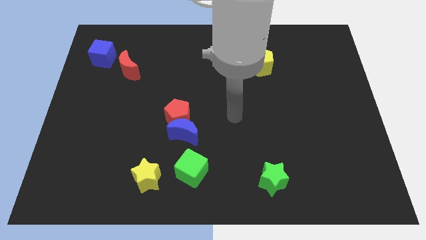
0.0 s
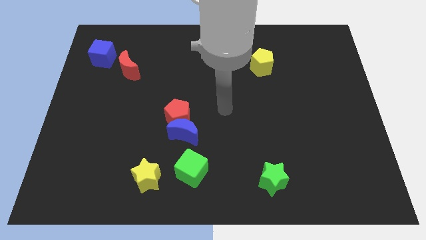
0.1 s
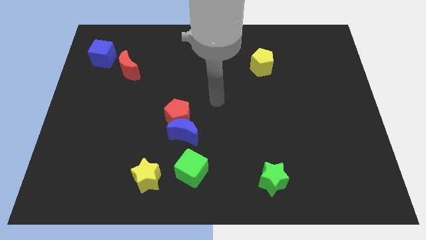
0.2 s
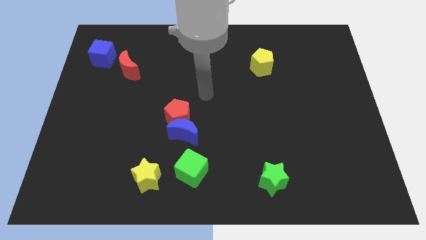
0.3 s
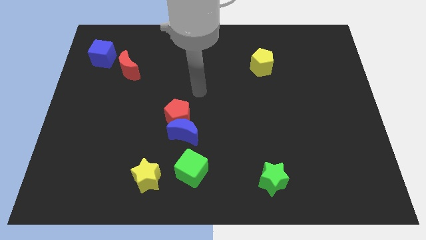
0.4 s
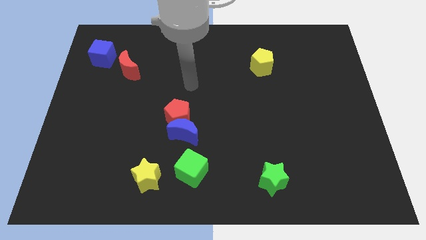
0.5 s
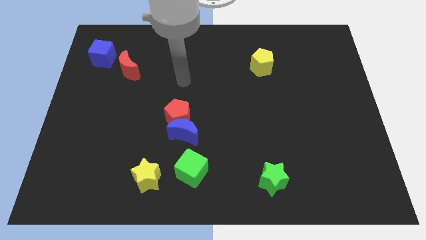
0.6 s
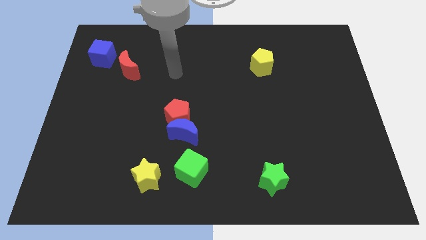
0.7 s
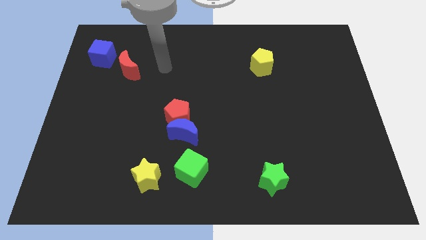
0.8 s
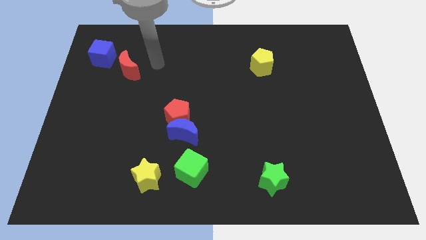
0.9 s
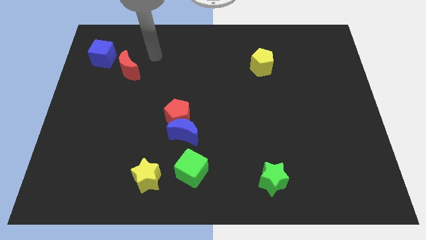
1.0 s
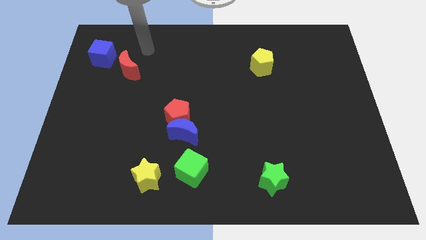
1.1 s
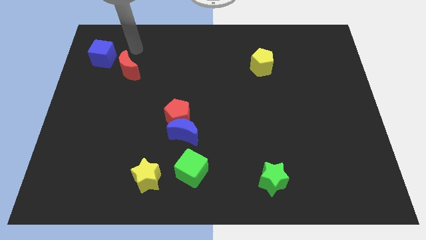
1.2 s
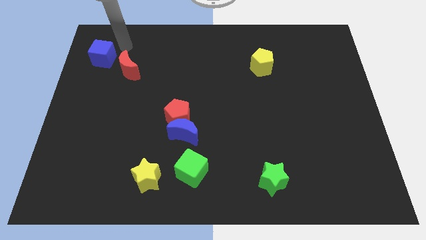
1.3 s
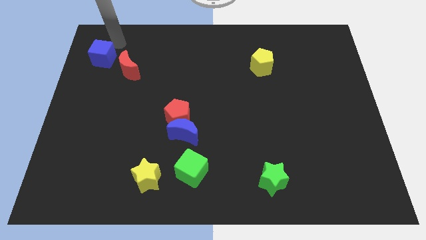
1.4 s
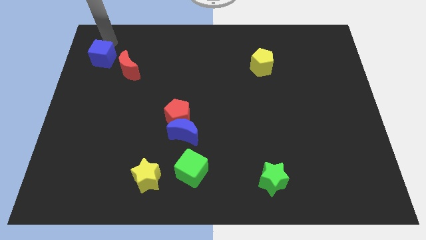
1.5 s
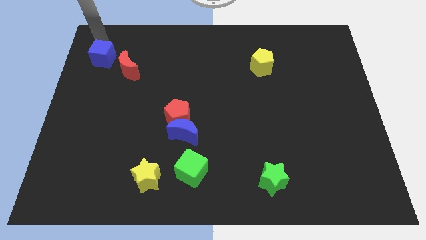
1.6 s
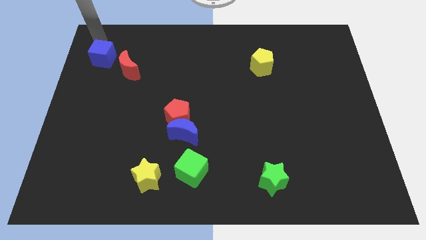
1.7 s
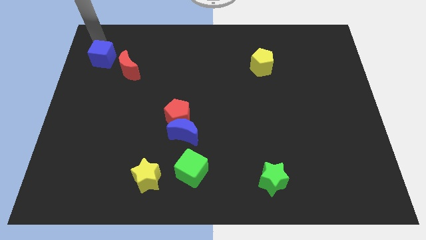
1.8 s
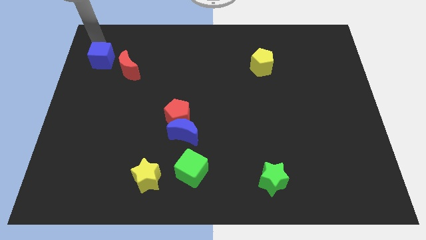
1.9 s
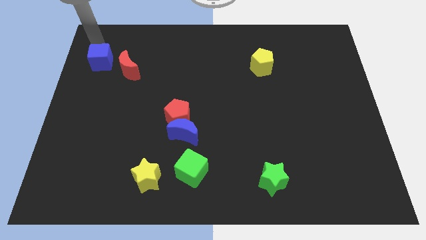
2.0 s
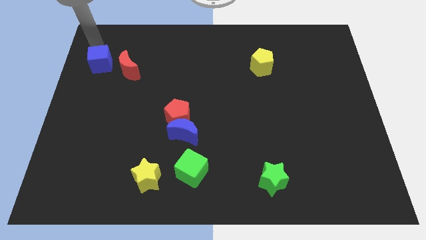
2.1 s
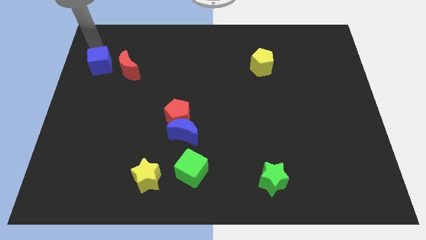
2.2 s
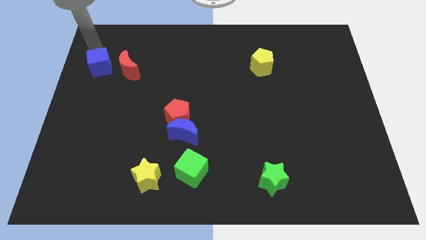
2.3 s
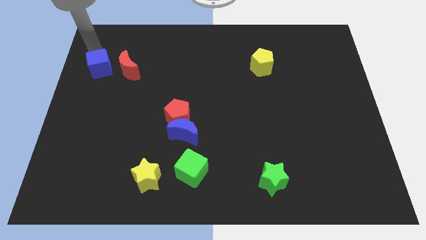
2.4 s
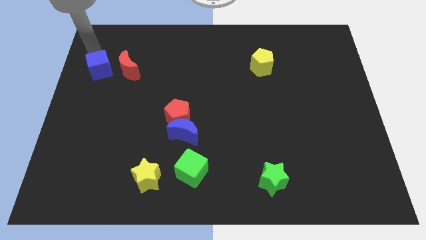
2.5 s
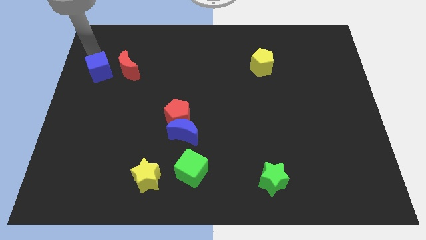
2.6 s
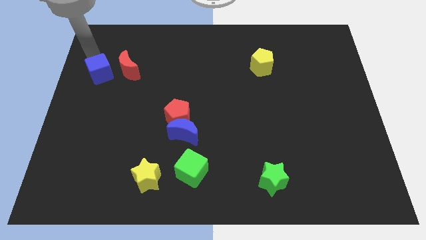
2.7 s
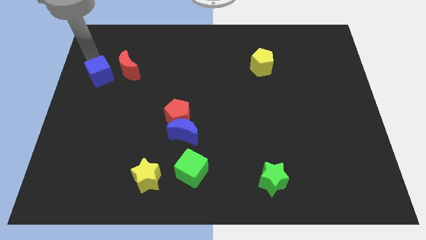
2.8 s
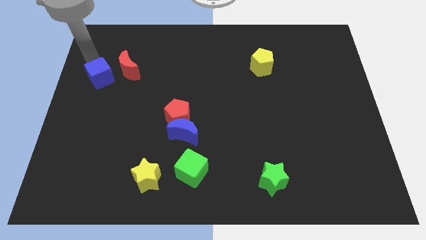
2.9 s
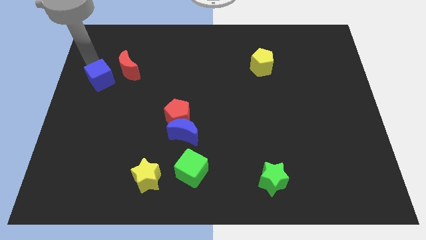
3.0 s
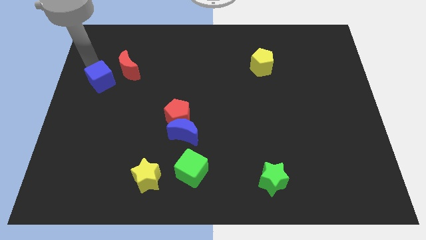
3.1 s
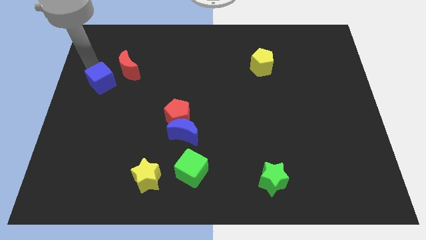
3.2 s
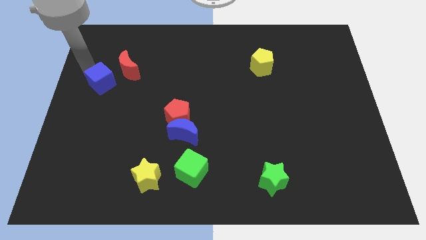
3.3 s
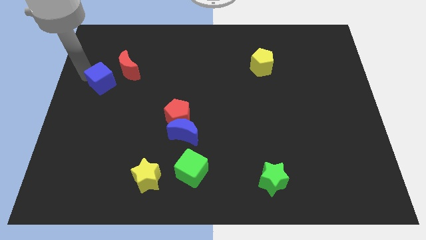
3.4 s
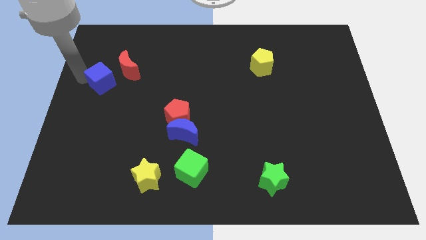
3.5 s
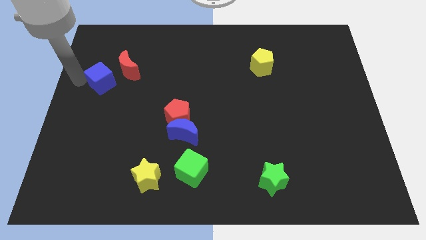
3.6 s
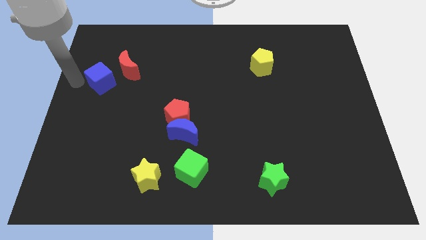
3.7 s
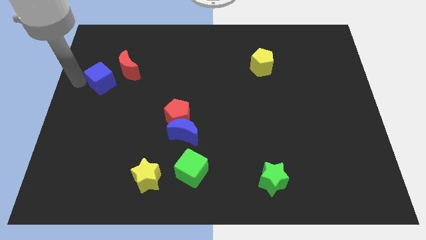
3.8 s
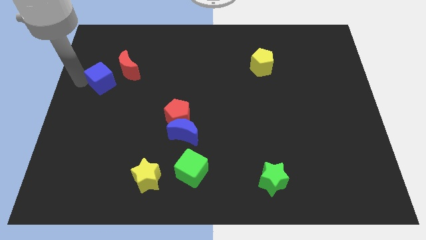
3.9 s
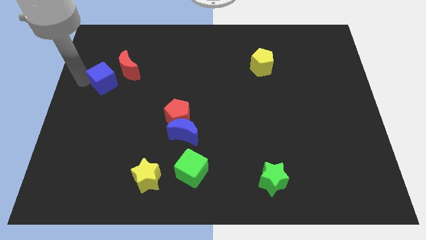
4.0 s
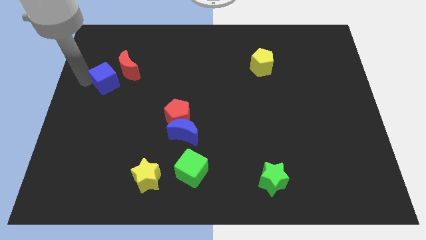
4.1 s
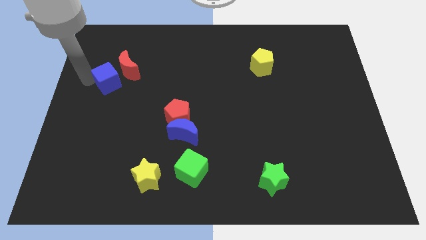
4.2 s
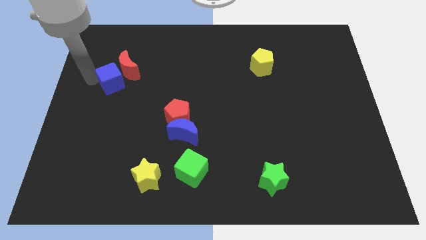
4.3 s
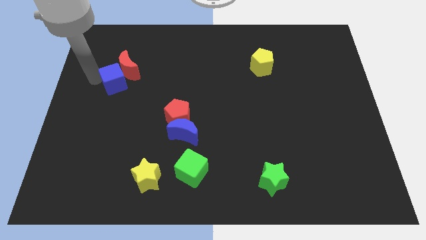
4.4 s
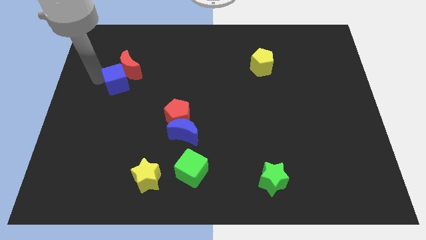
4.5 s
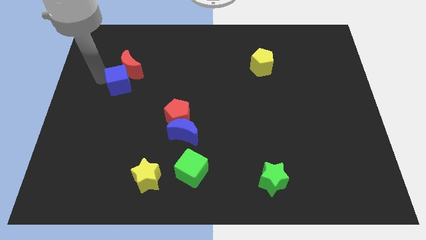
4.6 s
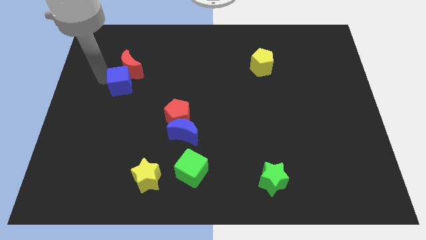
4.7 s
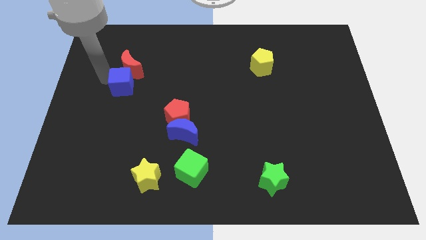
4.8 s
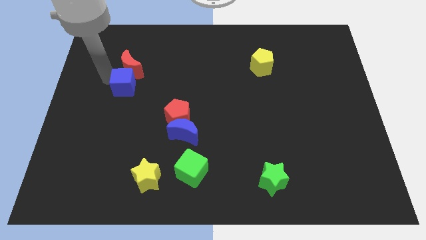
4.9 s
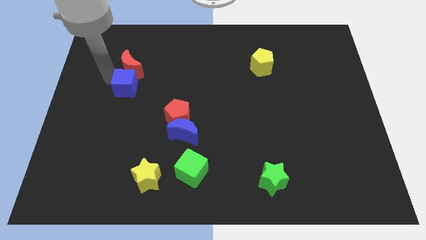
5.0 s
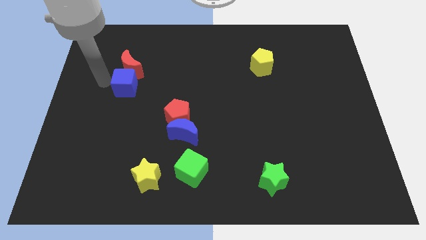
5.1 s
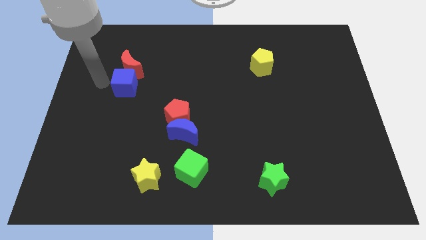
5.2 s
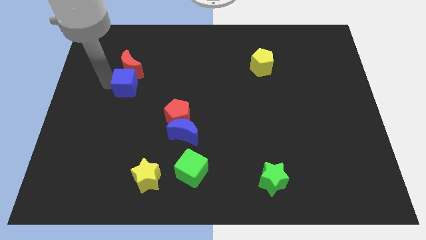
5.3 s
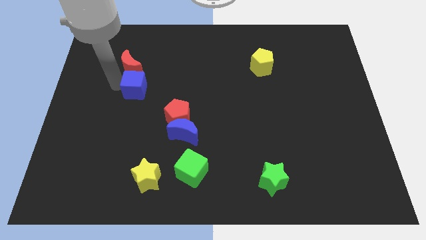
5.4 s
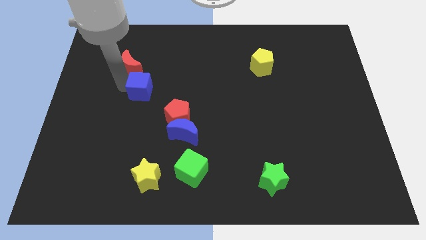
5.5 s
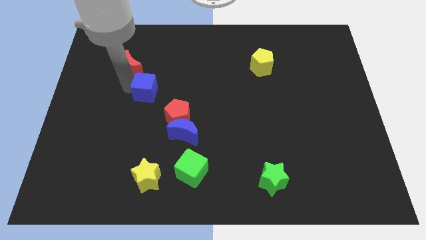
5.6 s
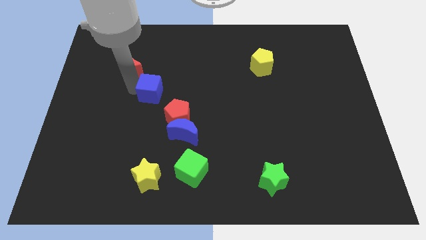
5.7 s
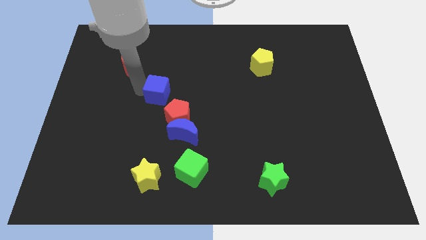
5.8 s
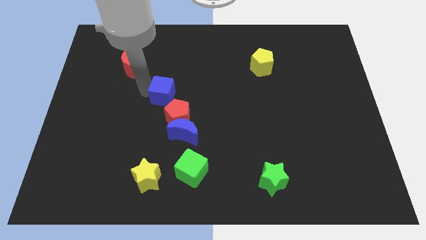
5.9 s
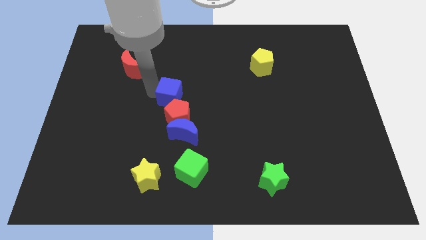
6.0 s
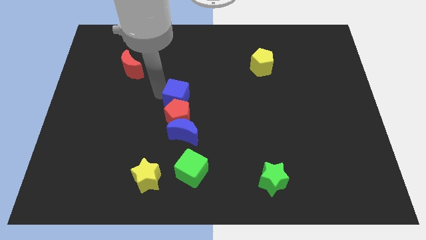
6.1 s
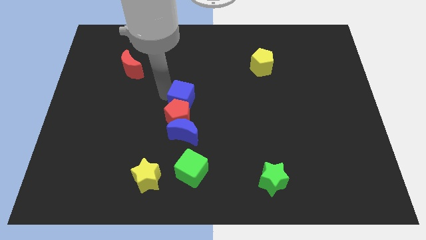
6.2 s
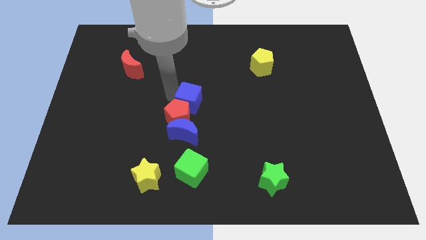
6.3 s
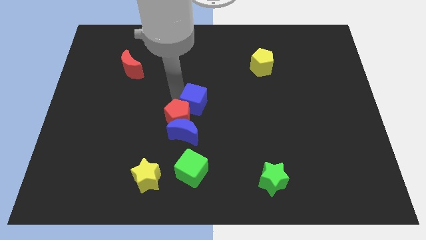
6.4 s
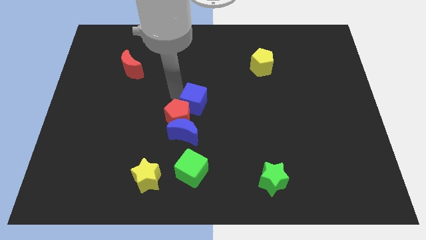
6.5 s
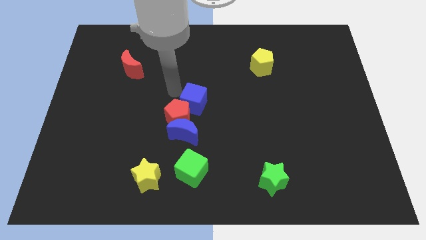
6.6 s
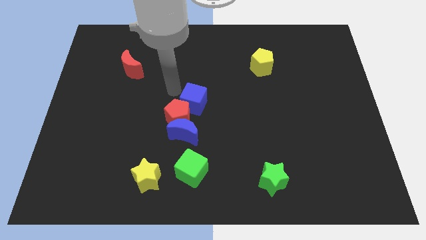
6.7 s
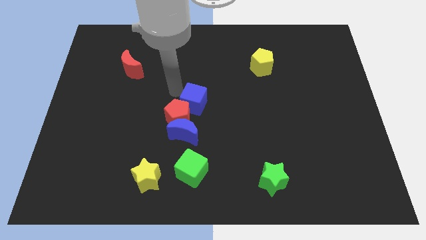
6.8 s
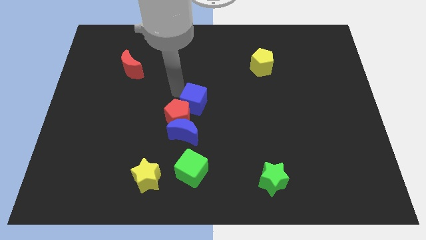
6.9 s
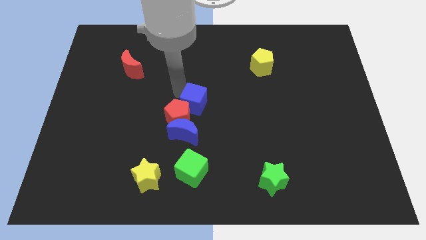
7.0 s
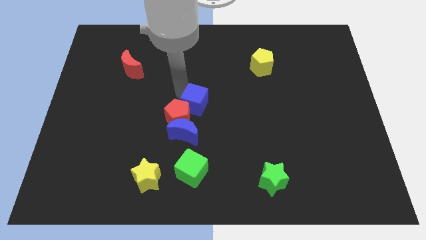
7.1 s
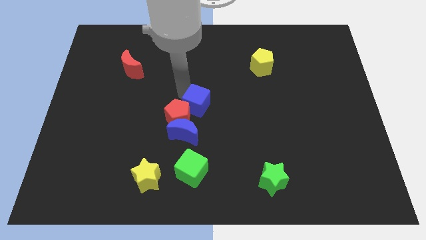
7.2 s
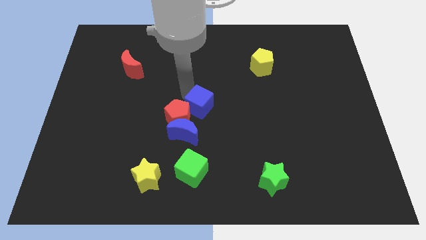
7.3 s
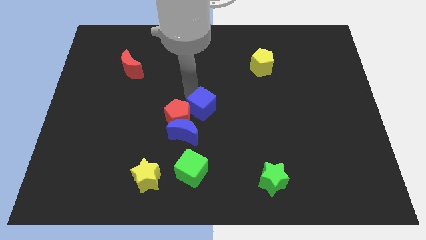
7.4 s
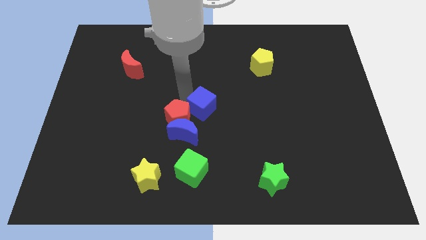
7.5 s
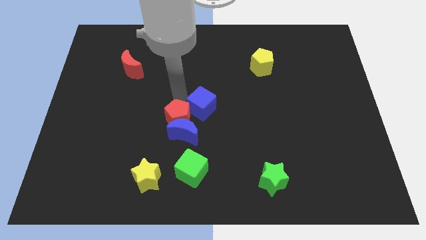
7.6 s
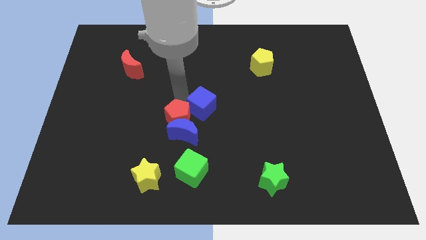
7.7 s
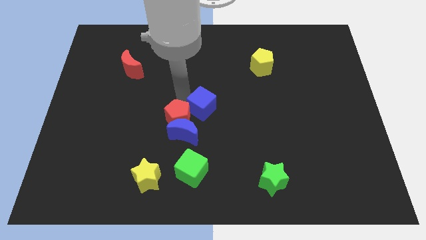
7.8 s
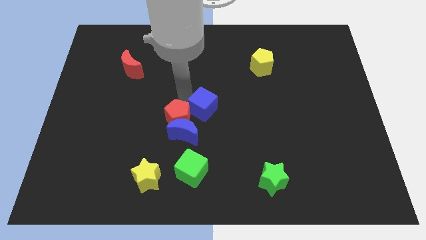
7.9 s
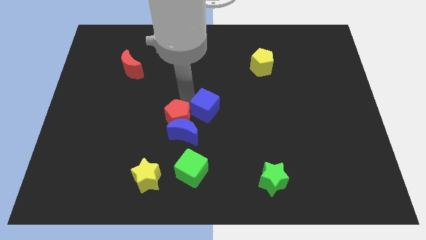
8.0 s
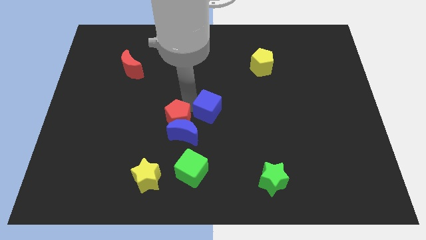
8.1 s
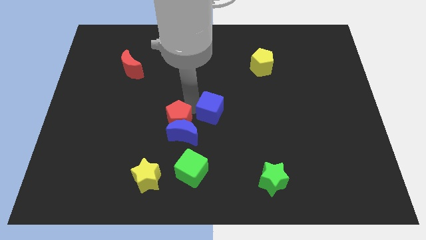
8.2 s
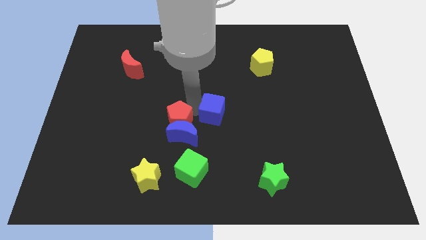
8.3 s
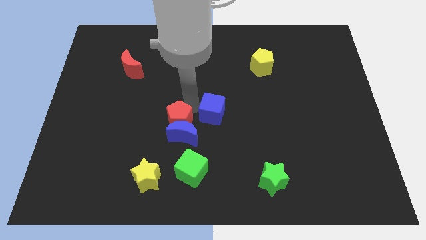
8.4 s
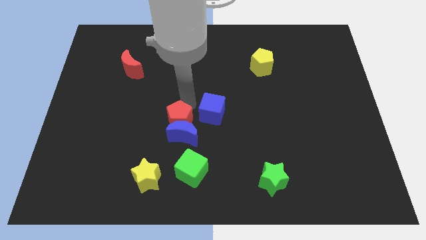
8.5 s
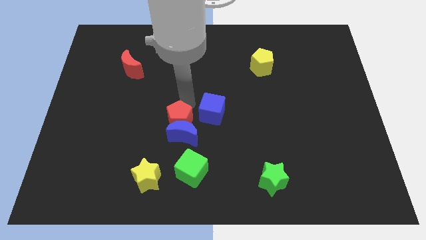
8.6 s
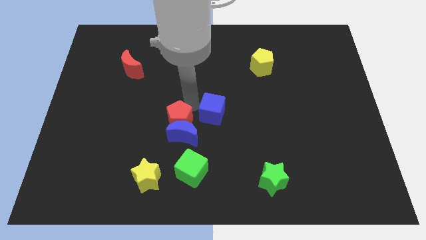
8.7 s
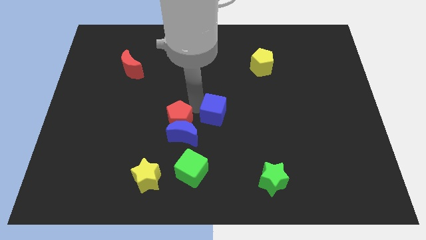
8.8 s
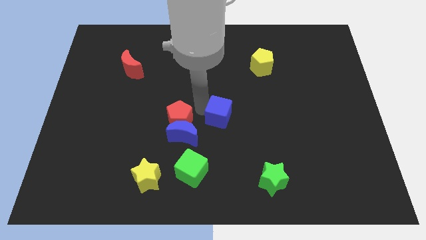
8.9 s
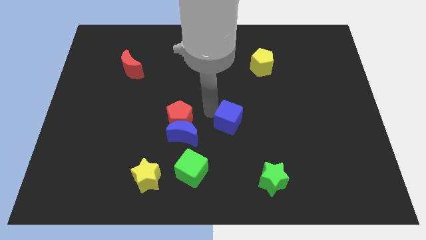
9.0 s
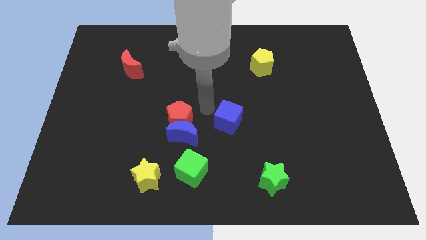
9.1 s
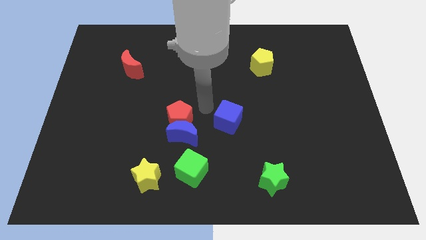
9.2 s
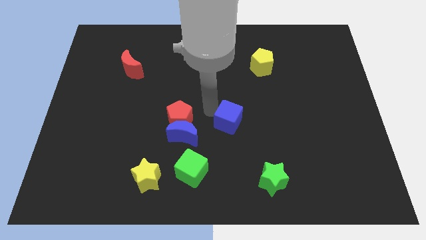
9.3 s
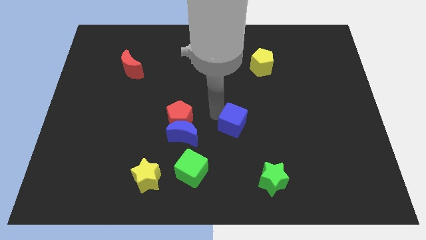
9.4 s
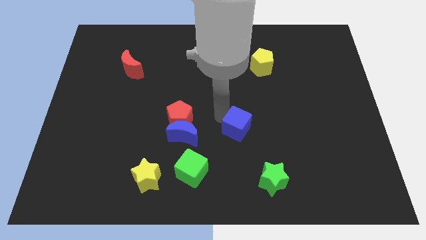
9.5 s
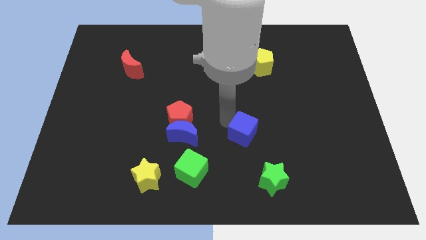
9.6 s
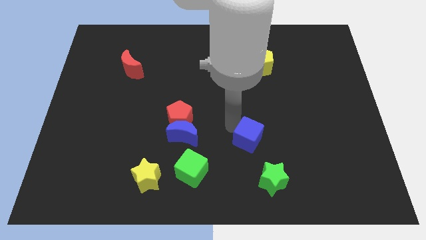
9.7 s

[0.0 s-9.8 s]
move the blue cube to the top side of the green star
